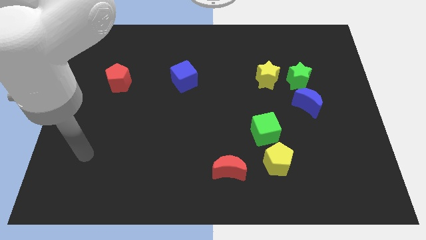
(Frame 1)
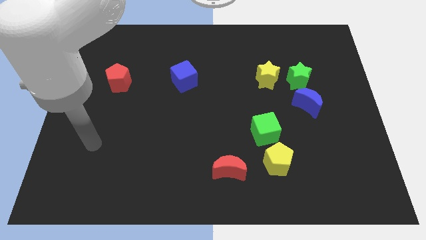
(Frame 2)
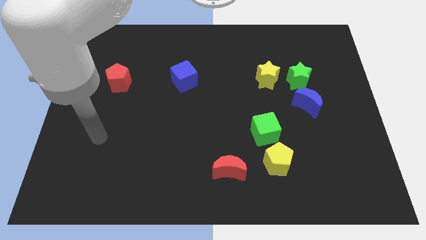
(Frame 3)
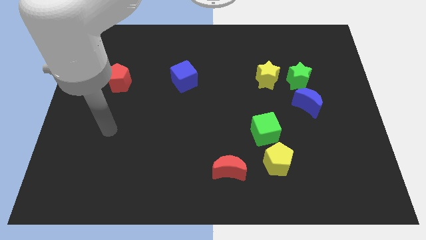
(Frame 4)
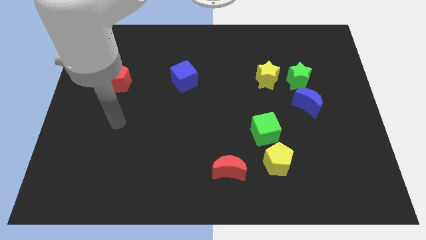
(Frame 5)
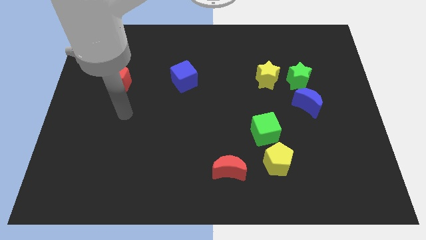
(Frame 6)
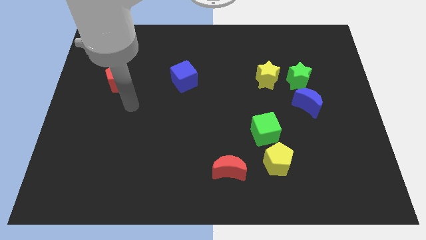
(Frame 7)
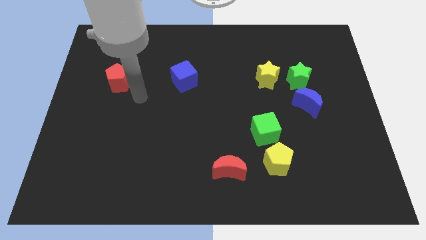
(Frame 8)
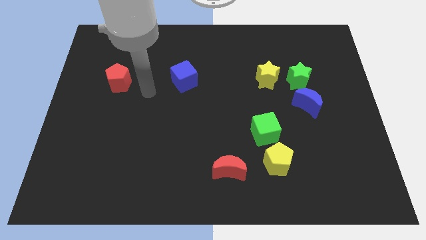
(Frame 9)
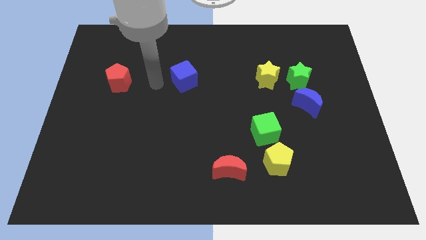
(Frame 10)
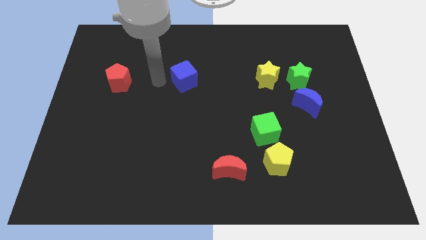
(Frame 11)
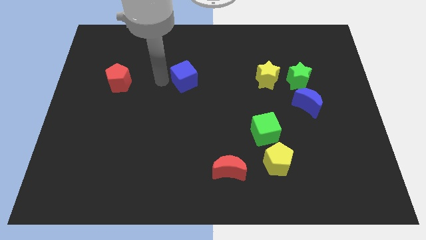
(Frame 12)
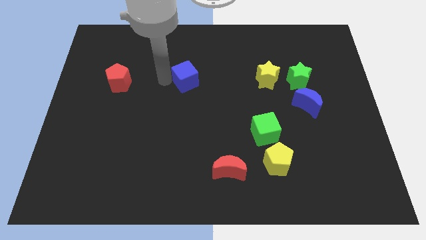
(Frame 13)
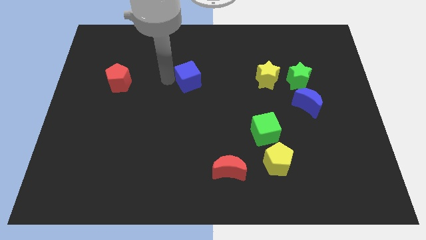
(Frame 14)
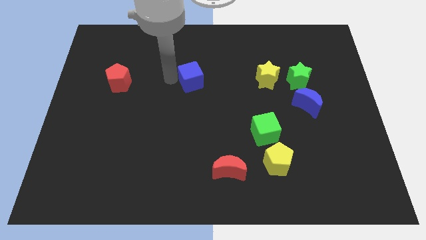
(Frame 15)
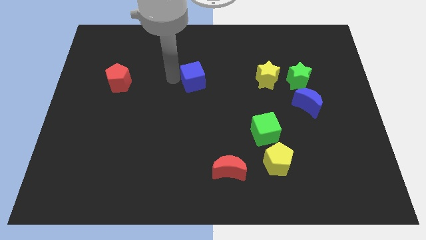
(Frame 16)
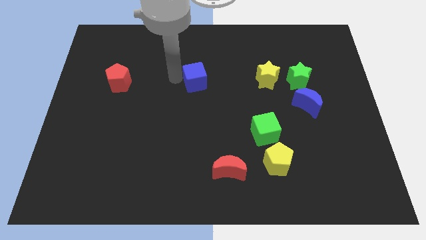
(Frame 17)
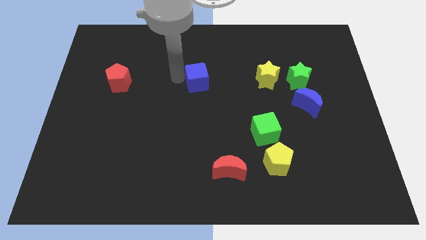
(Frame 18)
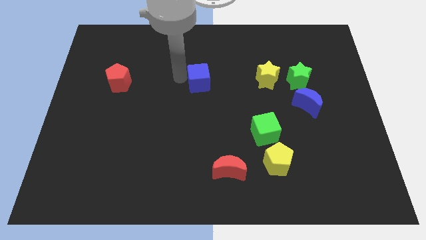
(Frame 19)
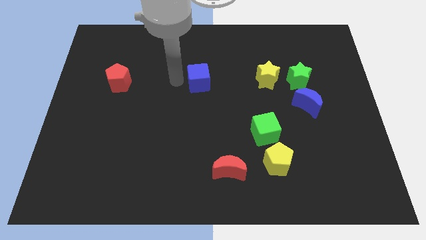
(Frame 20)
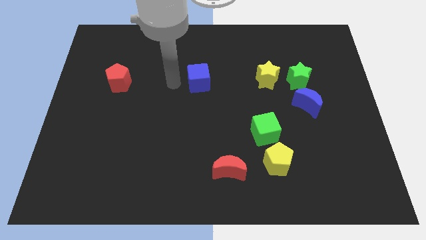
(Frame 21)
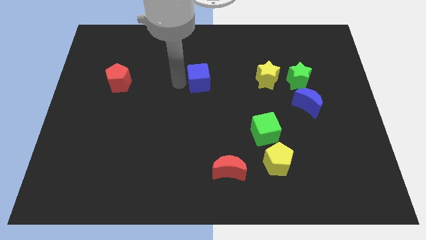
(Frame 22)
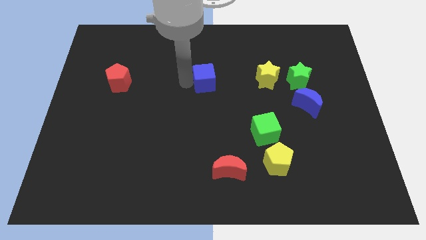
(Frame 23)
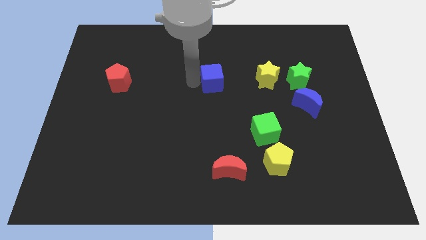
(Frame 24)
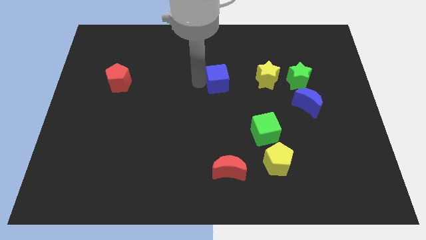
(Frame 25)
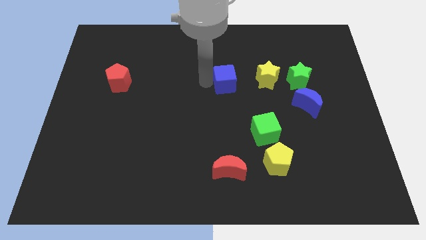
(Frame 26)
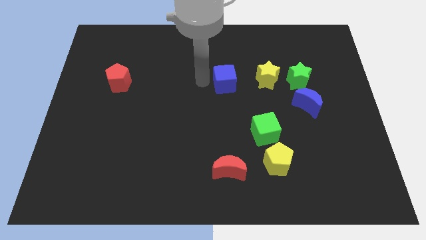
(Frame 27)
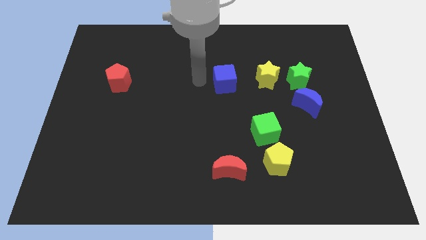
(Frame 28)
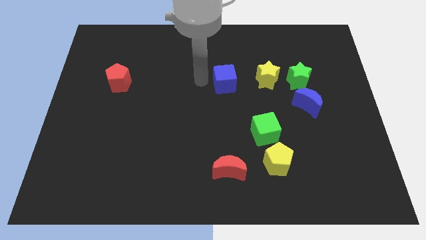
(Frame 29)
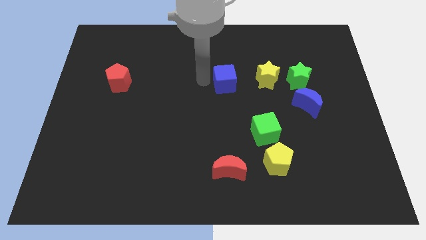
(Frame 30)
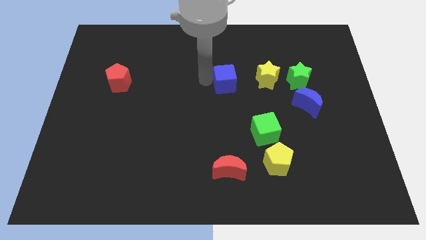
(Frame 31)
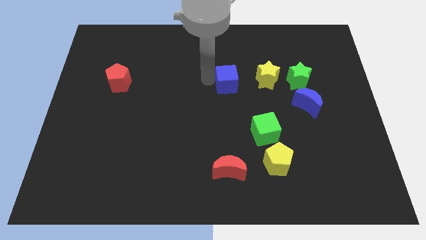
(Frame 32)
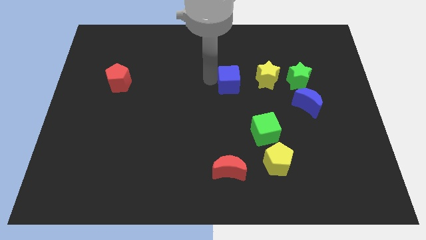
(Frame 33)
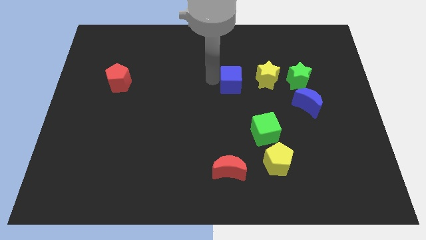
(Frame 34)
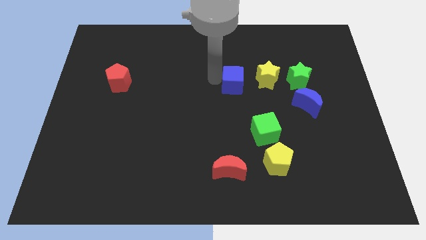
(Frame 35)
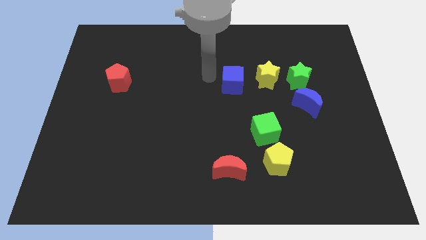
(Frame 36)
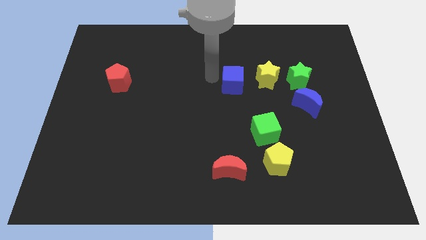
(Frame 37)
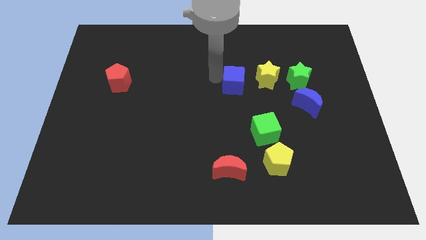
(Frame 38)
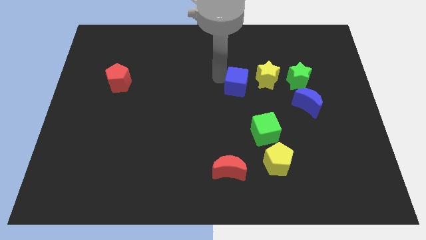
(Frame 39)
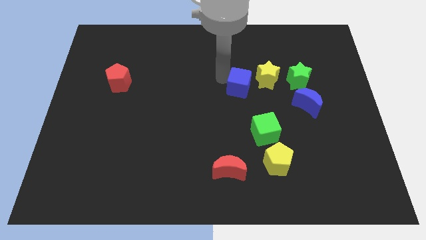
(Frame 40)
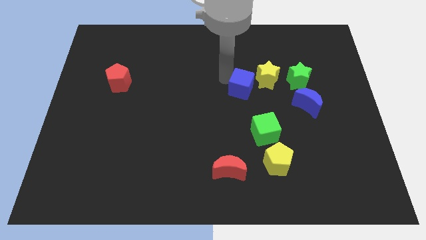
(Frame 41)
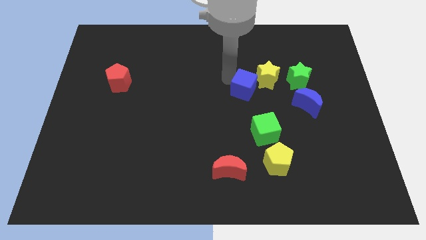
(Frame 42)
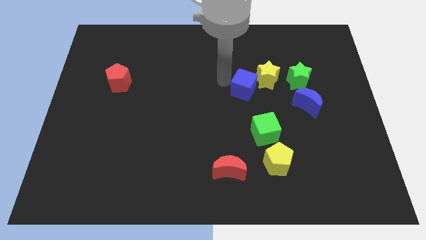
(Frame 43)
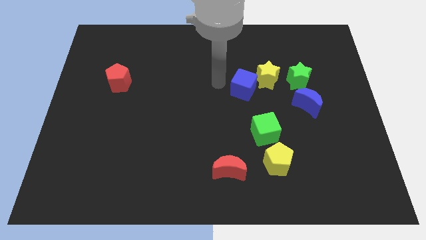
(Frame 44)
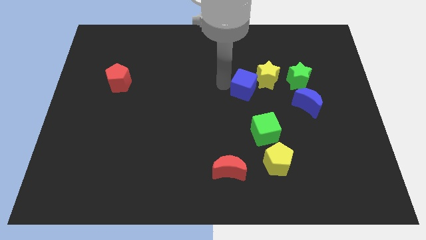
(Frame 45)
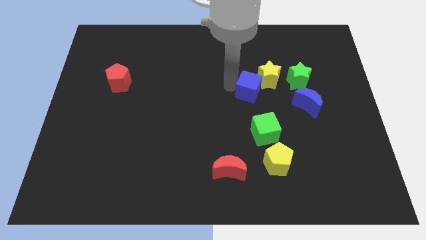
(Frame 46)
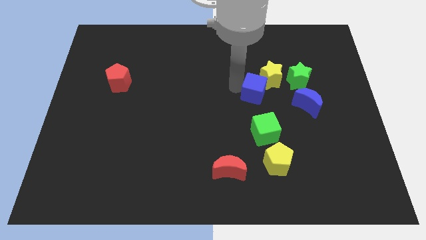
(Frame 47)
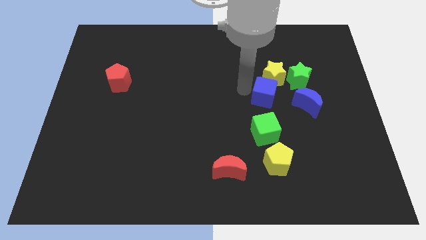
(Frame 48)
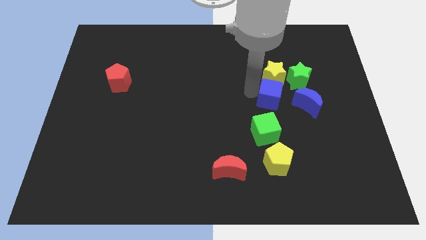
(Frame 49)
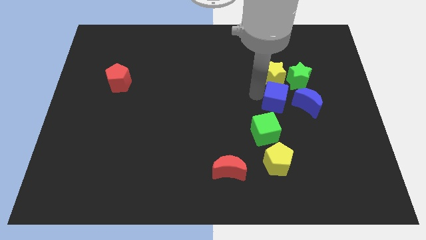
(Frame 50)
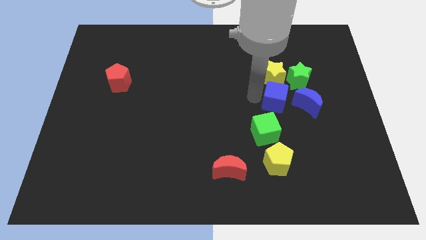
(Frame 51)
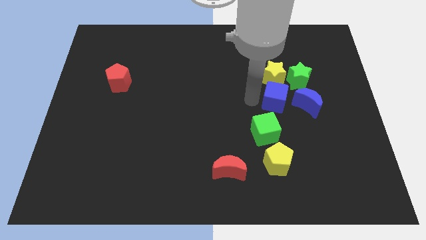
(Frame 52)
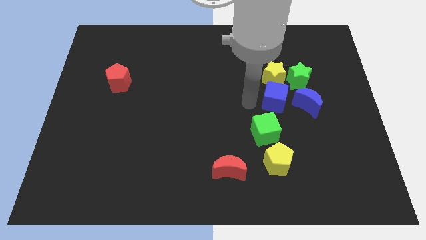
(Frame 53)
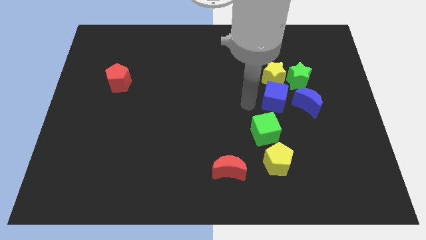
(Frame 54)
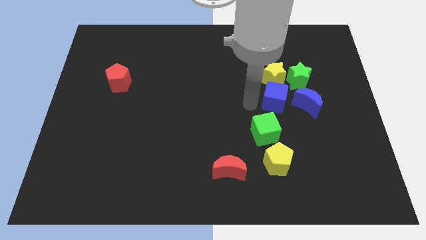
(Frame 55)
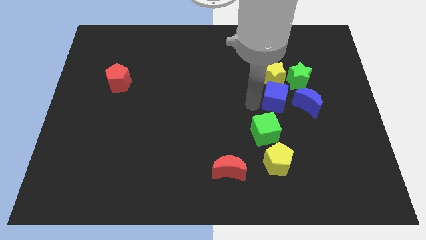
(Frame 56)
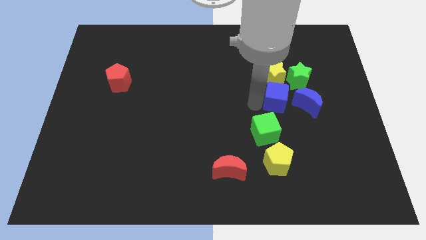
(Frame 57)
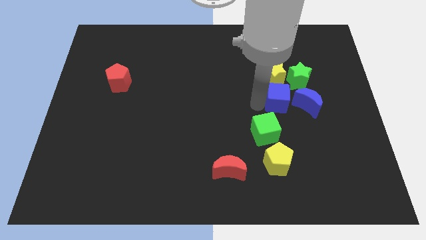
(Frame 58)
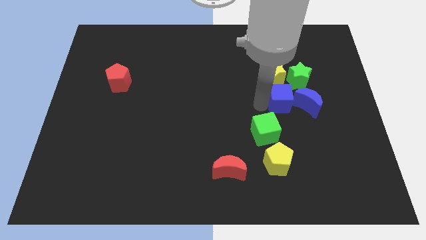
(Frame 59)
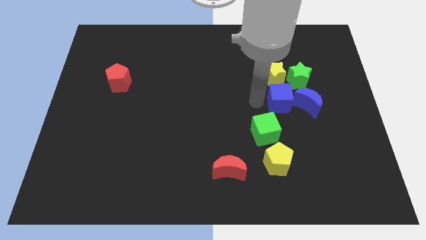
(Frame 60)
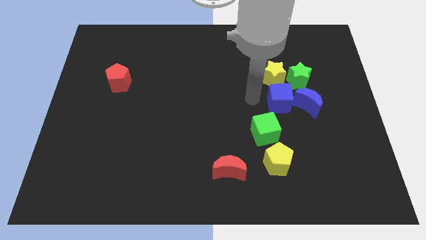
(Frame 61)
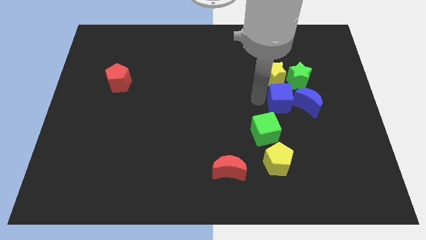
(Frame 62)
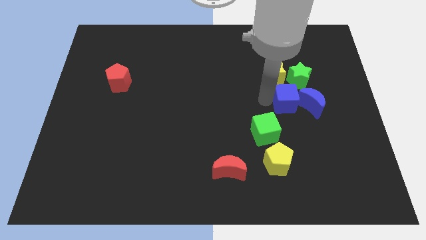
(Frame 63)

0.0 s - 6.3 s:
push the blue cube next to the blue moon
